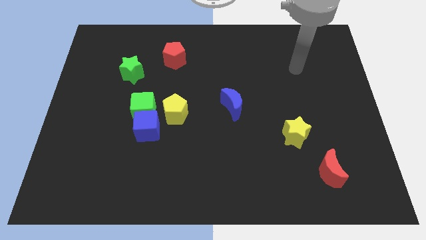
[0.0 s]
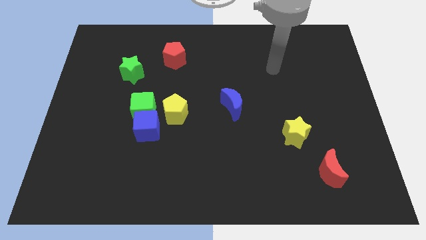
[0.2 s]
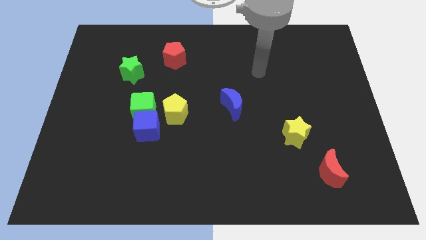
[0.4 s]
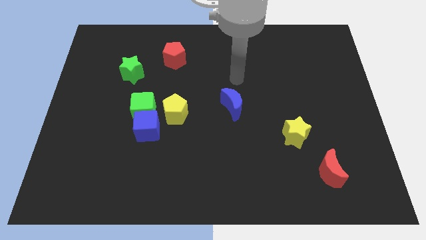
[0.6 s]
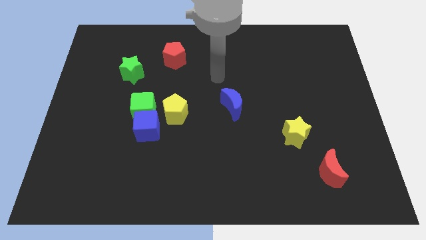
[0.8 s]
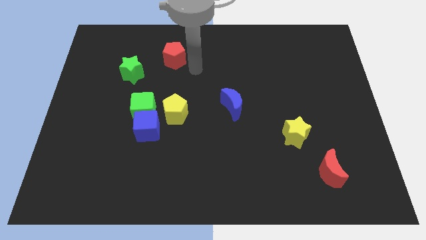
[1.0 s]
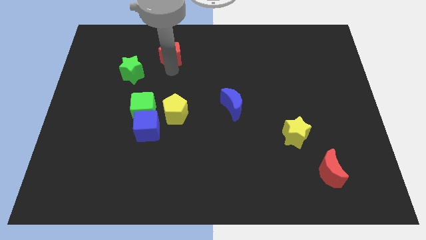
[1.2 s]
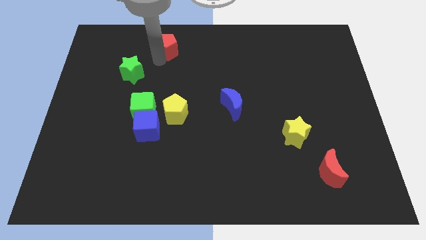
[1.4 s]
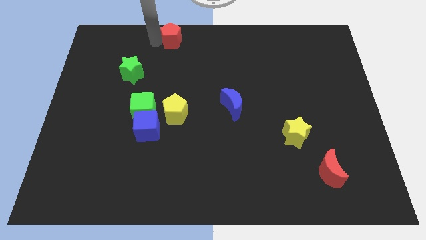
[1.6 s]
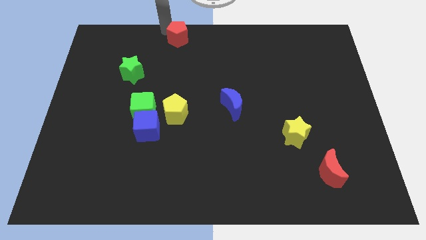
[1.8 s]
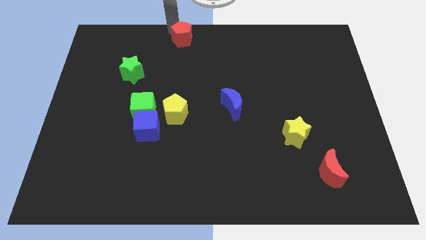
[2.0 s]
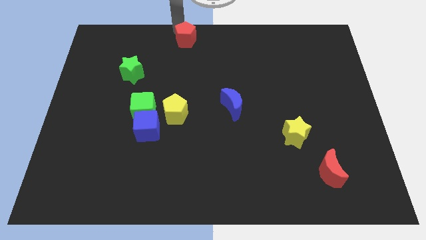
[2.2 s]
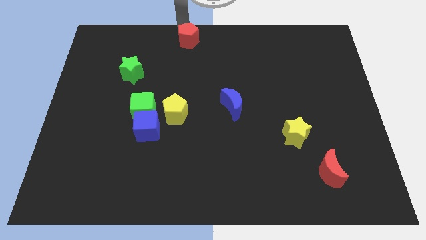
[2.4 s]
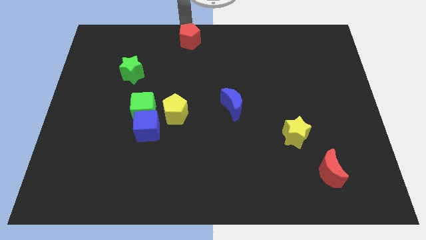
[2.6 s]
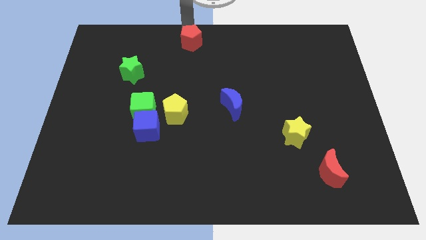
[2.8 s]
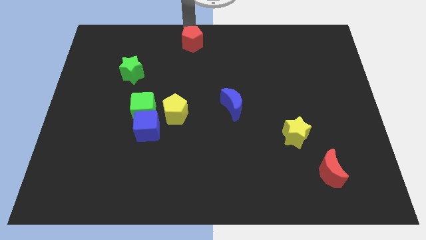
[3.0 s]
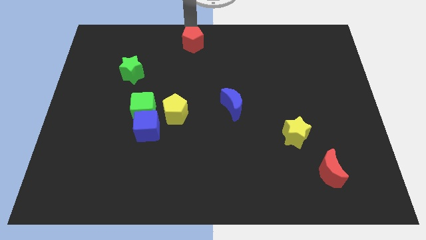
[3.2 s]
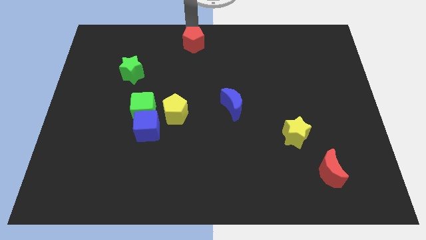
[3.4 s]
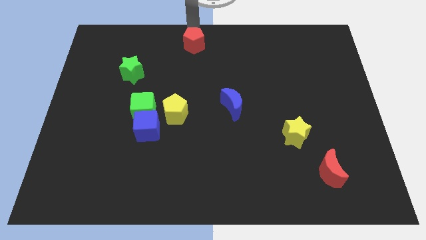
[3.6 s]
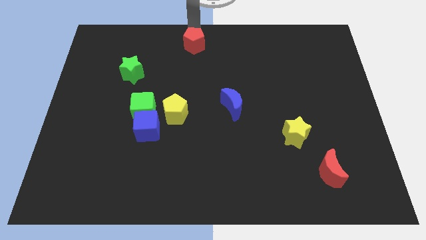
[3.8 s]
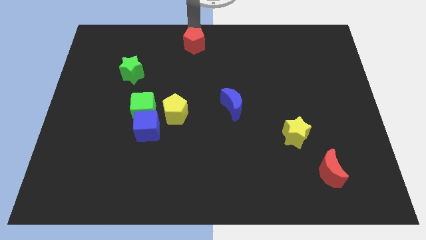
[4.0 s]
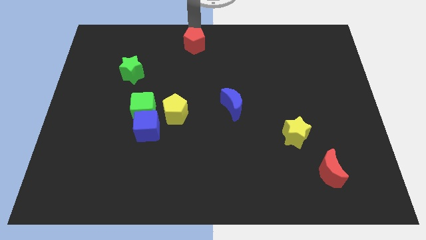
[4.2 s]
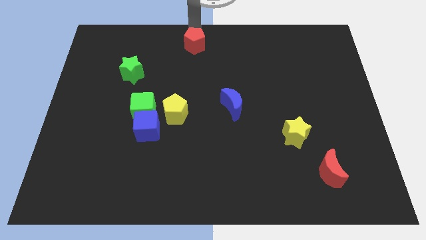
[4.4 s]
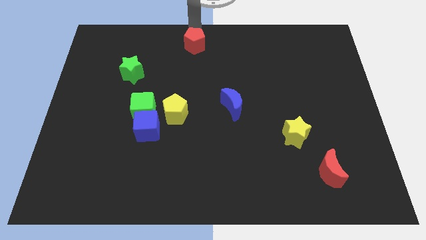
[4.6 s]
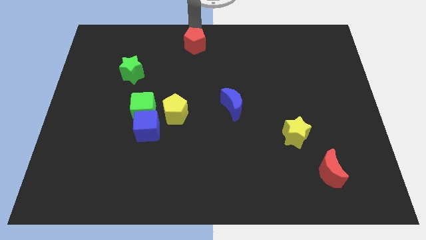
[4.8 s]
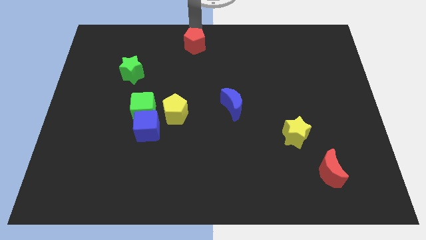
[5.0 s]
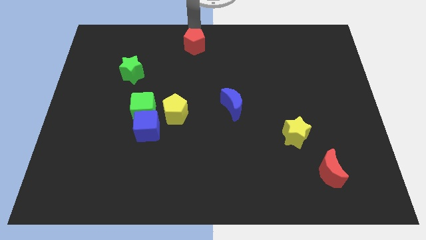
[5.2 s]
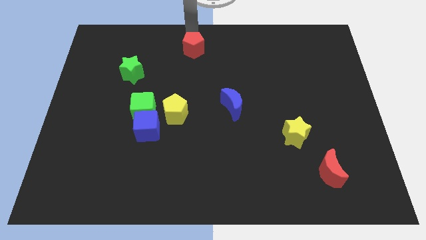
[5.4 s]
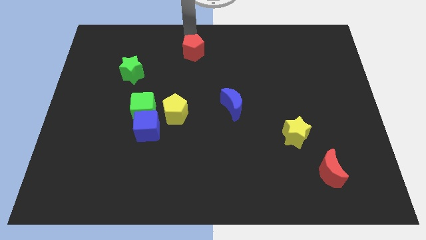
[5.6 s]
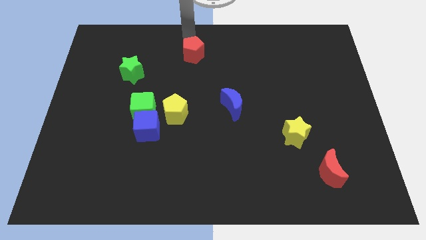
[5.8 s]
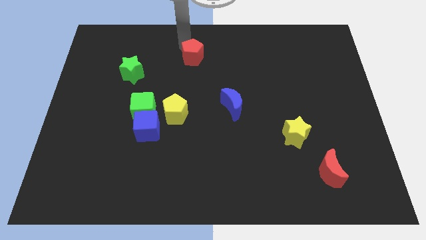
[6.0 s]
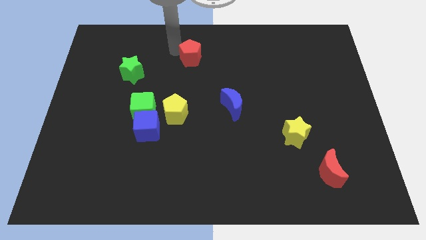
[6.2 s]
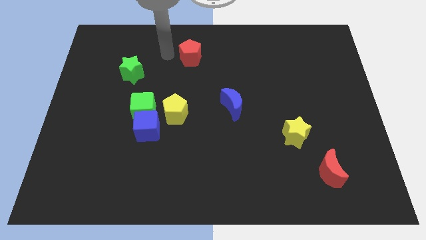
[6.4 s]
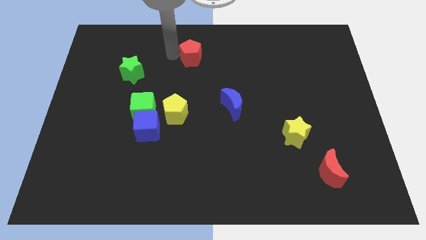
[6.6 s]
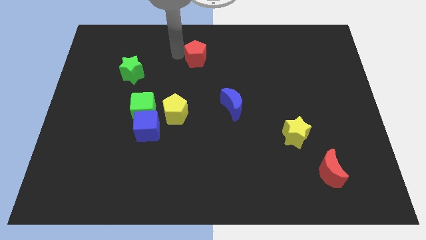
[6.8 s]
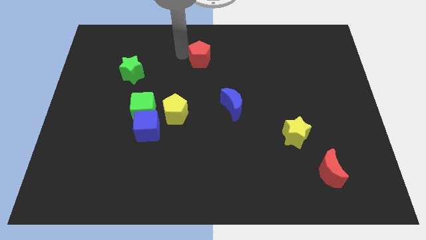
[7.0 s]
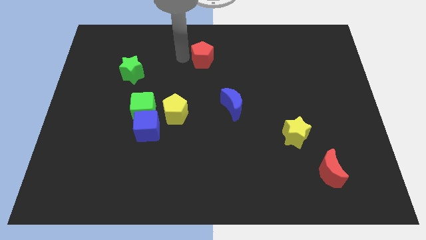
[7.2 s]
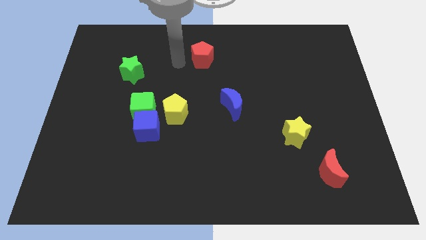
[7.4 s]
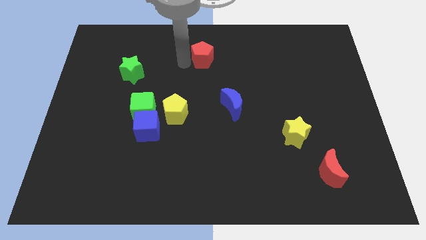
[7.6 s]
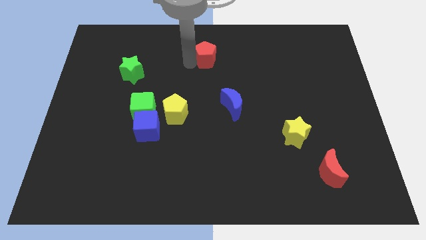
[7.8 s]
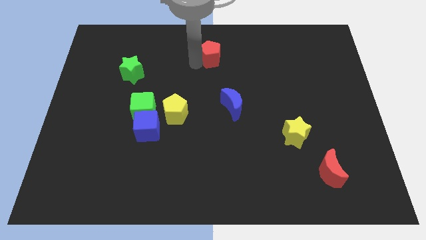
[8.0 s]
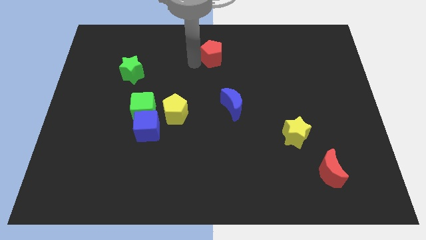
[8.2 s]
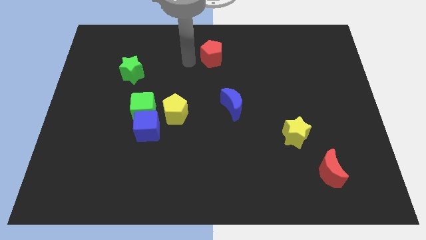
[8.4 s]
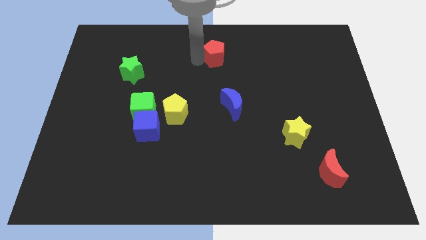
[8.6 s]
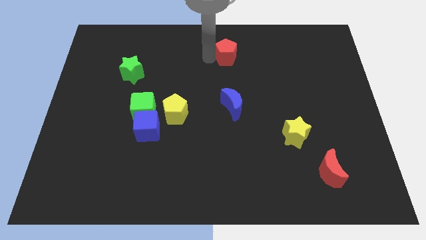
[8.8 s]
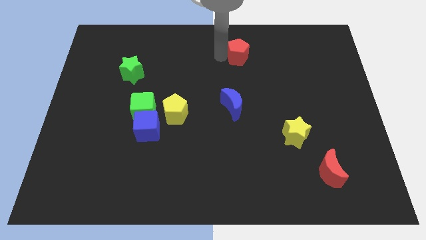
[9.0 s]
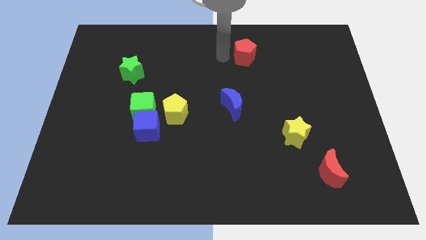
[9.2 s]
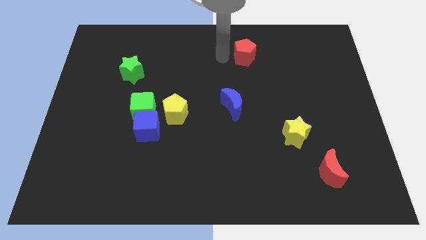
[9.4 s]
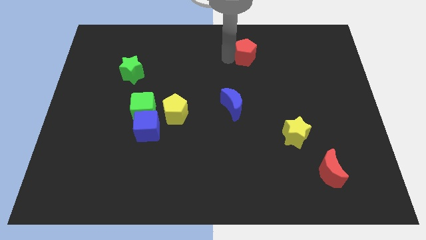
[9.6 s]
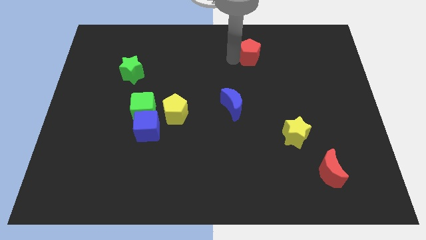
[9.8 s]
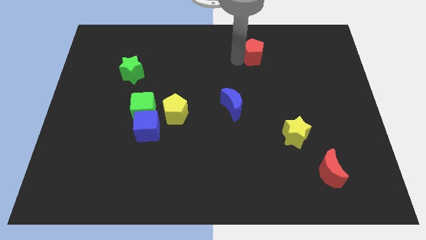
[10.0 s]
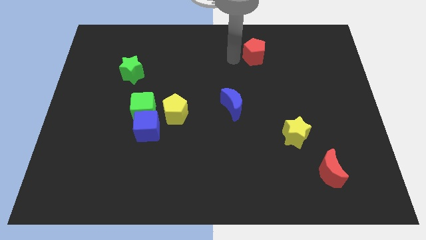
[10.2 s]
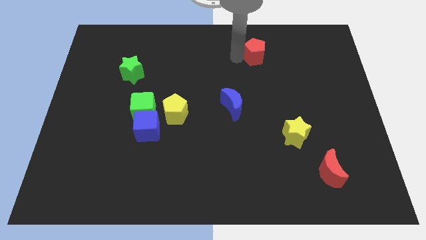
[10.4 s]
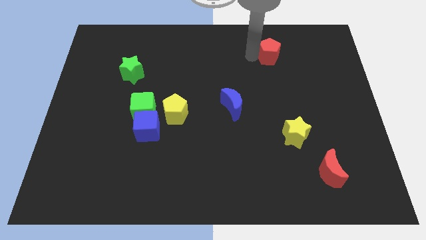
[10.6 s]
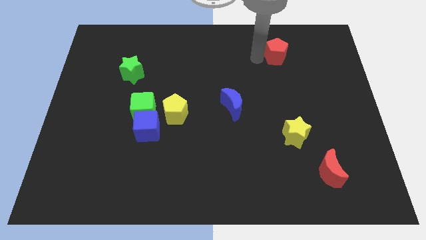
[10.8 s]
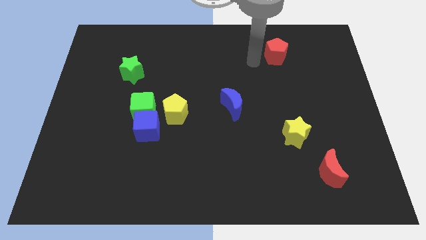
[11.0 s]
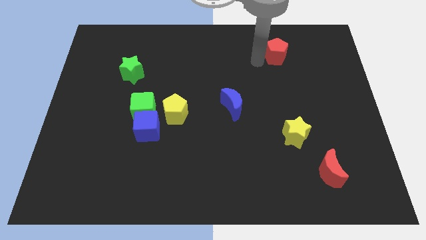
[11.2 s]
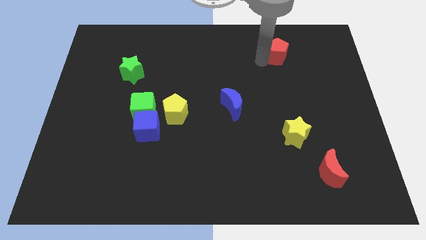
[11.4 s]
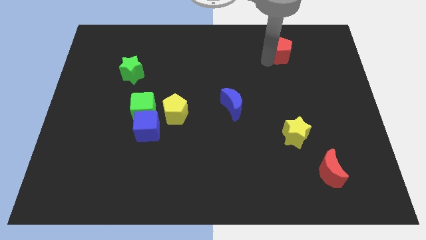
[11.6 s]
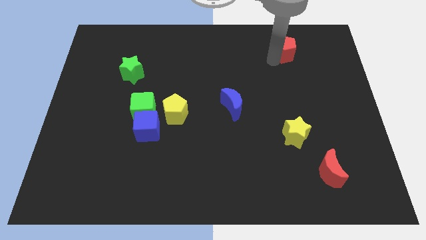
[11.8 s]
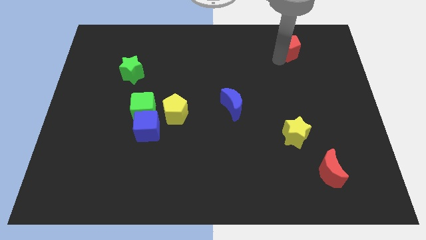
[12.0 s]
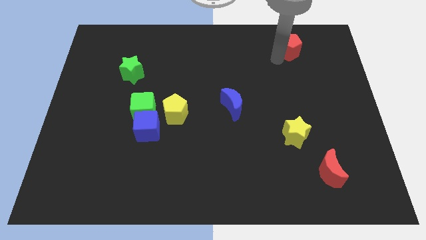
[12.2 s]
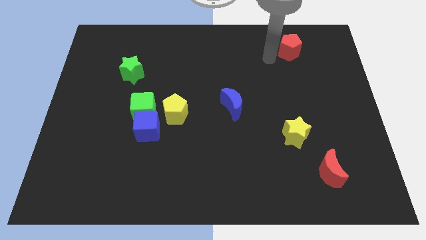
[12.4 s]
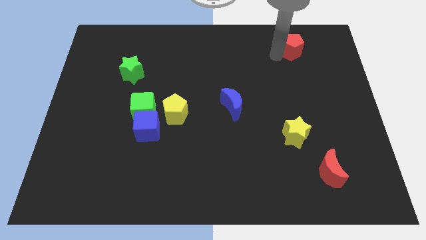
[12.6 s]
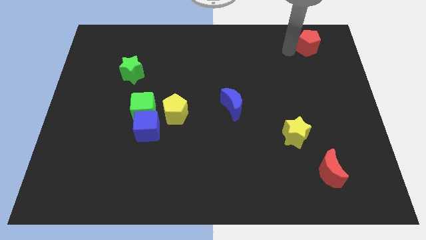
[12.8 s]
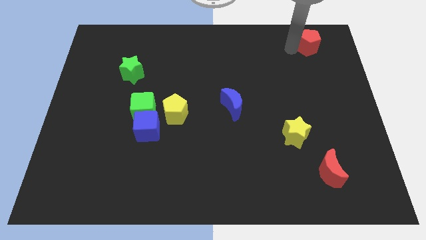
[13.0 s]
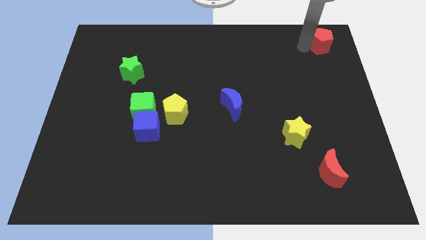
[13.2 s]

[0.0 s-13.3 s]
slide the red pentagon to the upper right corner
